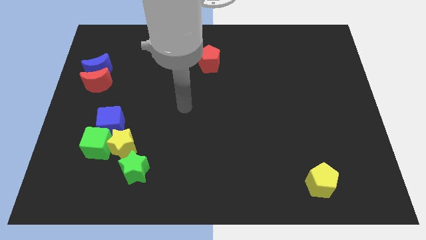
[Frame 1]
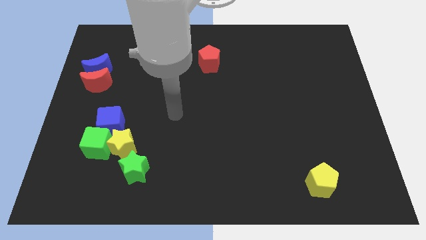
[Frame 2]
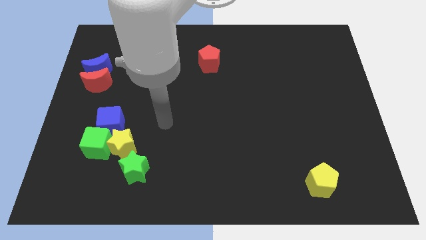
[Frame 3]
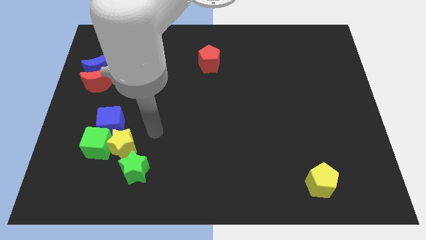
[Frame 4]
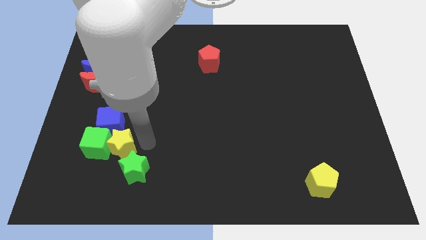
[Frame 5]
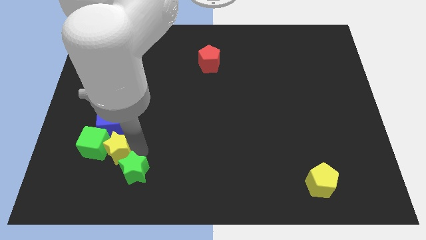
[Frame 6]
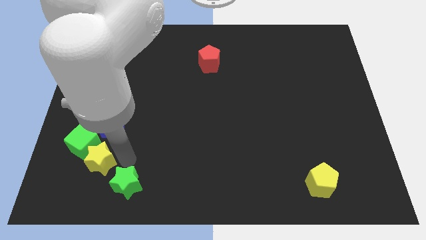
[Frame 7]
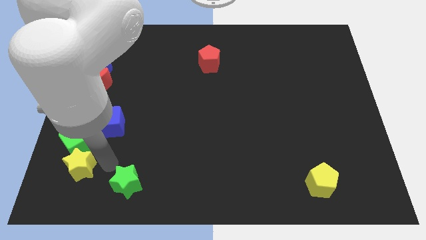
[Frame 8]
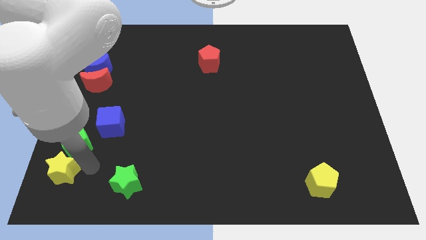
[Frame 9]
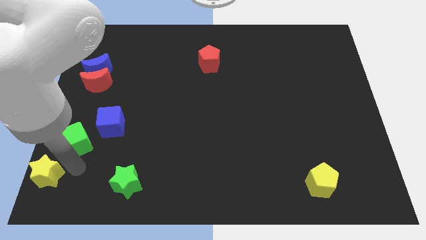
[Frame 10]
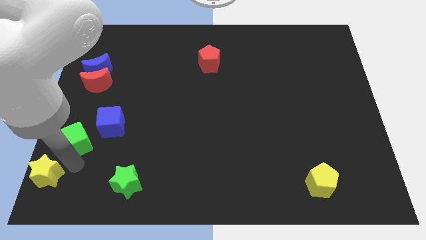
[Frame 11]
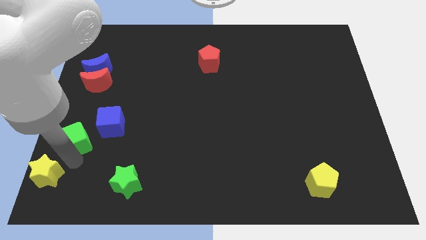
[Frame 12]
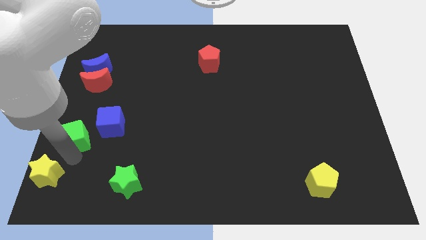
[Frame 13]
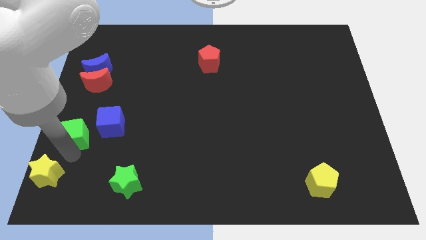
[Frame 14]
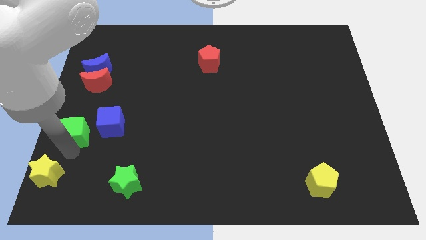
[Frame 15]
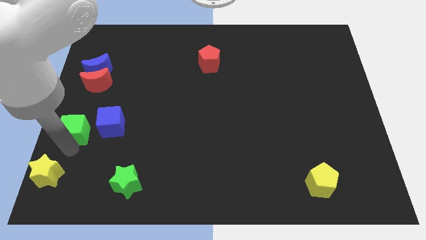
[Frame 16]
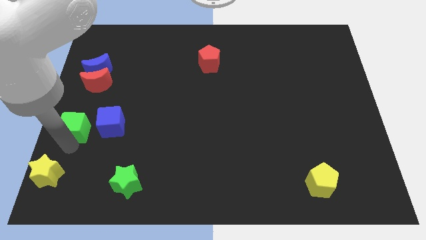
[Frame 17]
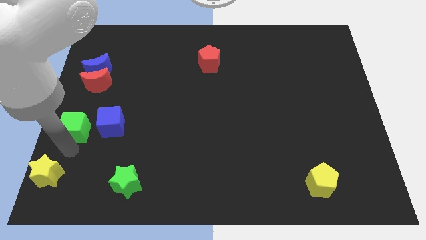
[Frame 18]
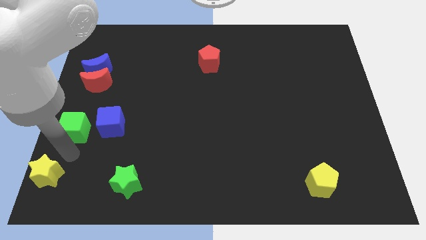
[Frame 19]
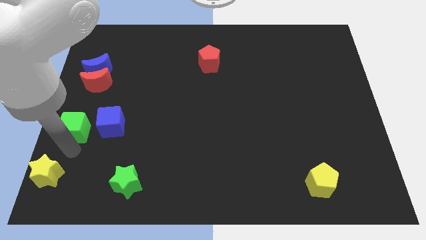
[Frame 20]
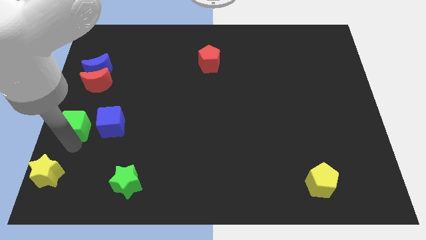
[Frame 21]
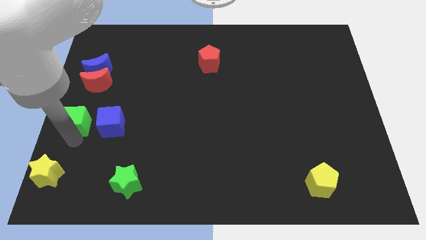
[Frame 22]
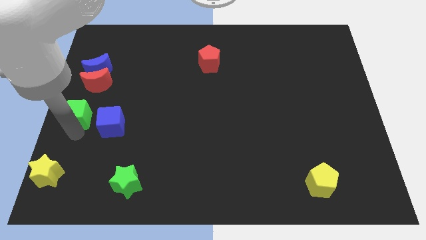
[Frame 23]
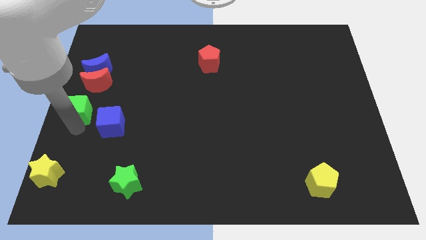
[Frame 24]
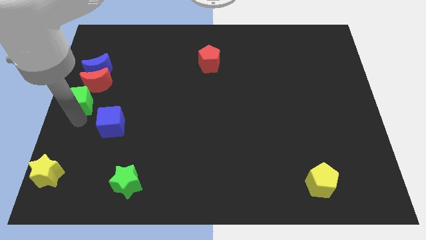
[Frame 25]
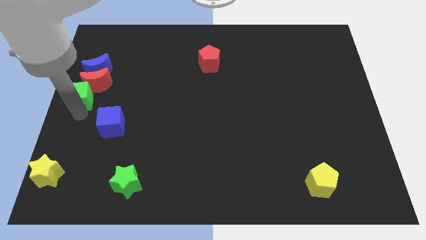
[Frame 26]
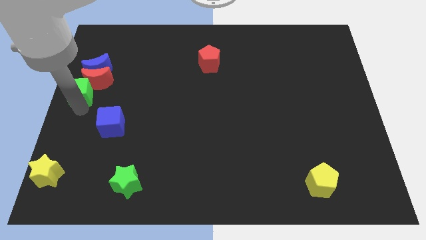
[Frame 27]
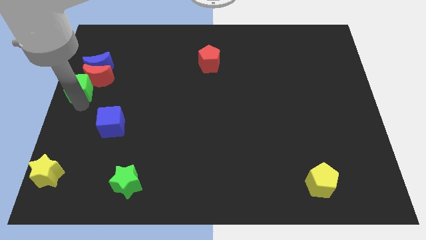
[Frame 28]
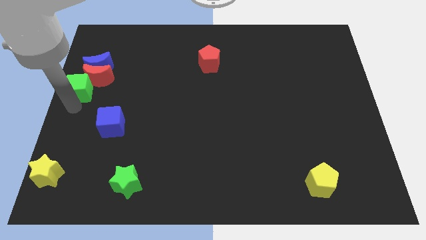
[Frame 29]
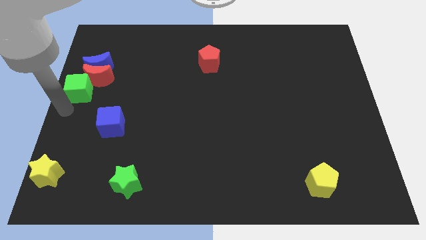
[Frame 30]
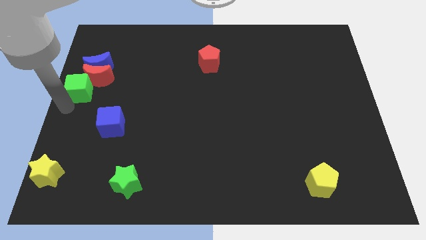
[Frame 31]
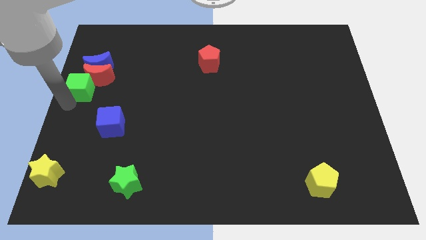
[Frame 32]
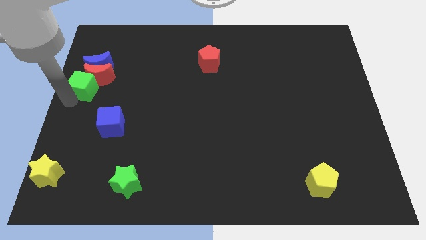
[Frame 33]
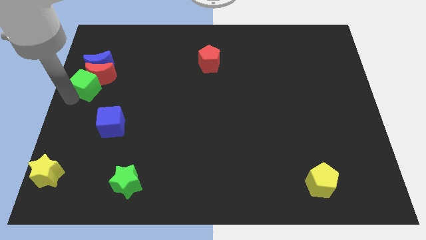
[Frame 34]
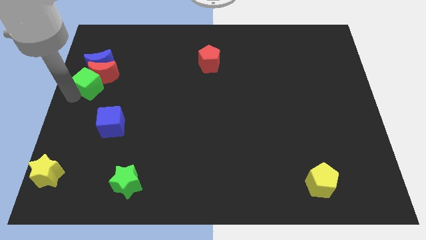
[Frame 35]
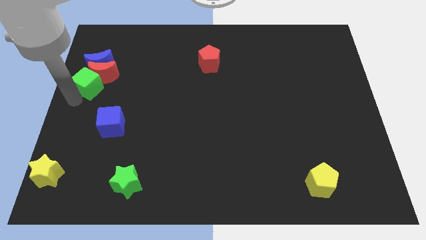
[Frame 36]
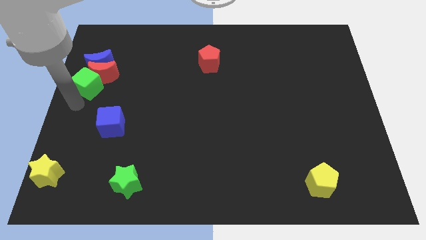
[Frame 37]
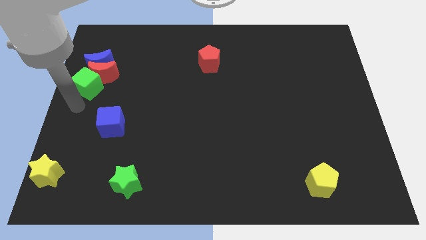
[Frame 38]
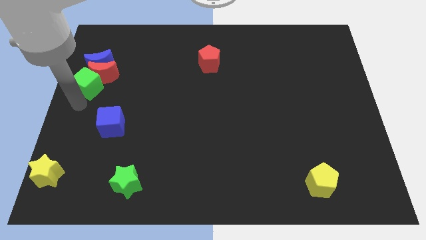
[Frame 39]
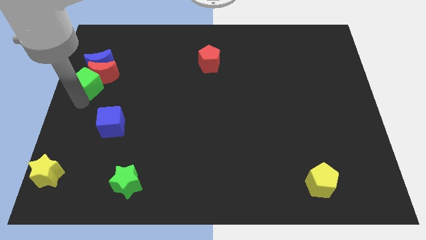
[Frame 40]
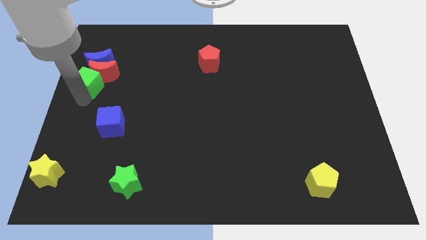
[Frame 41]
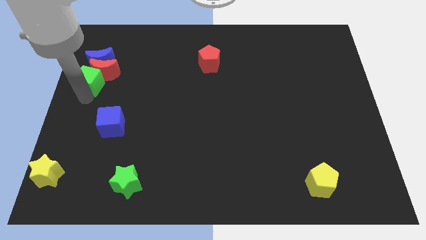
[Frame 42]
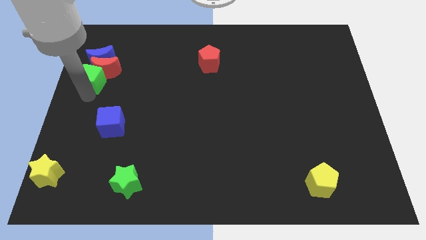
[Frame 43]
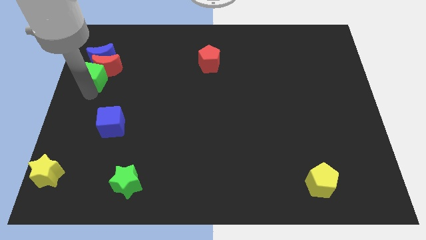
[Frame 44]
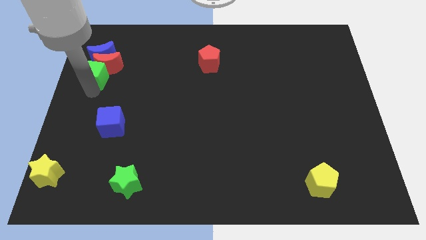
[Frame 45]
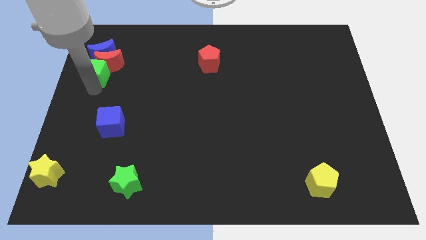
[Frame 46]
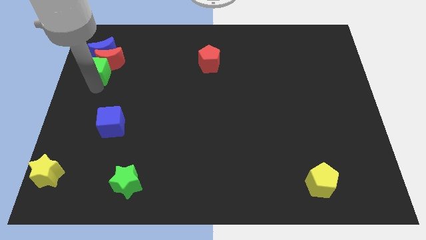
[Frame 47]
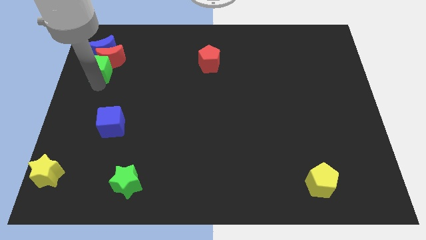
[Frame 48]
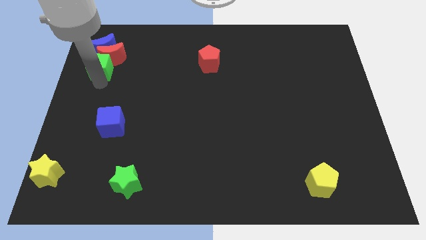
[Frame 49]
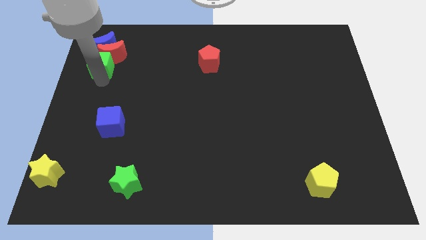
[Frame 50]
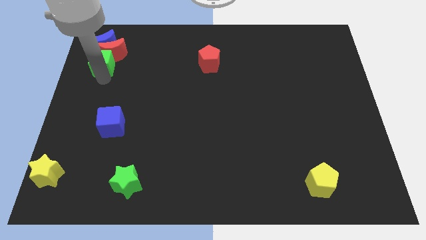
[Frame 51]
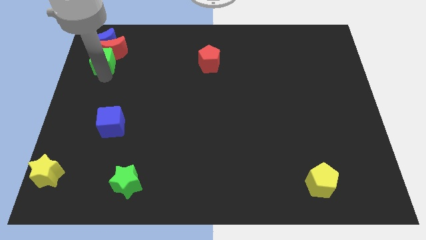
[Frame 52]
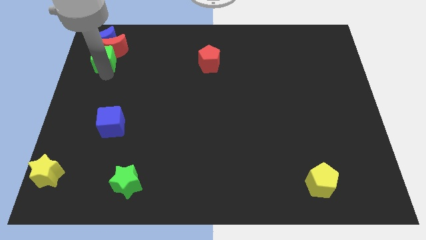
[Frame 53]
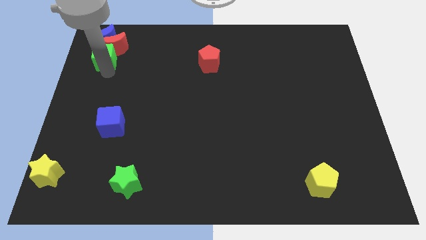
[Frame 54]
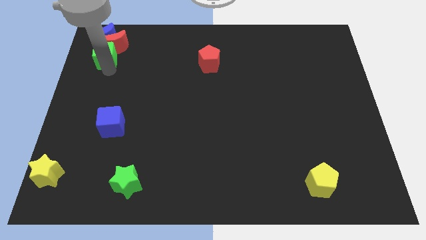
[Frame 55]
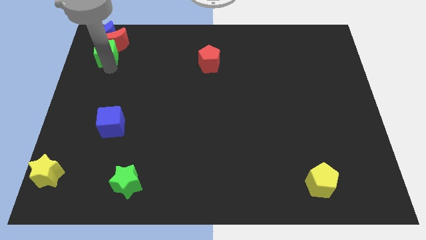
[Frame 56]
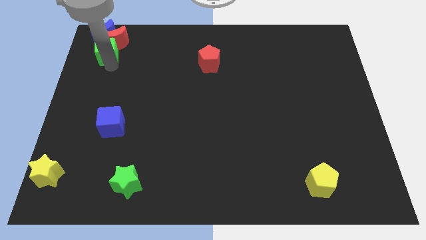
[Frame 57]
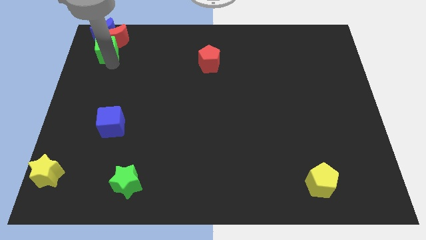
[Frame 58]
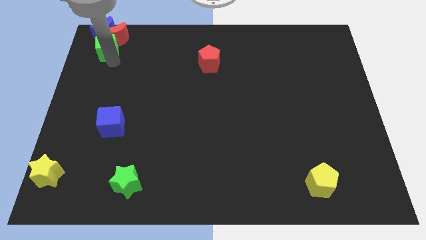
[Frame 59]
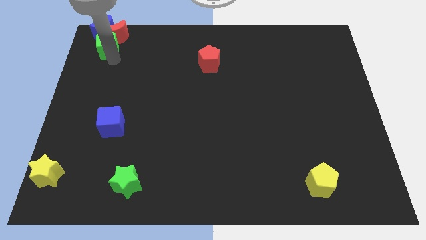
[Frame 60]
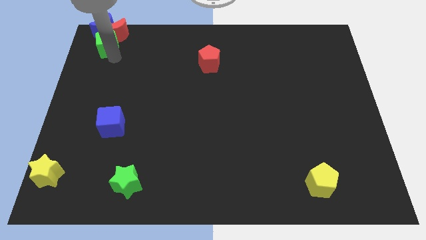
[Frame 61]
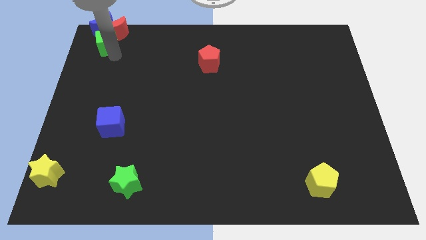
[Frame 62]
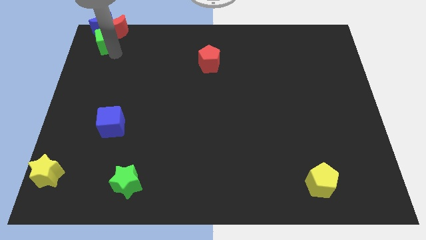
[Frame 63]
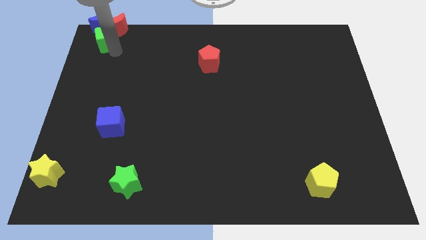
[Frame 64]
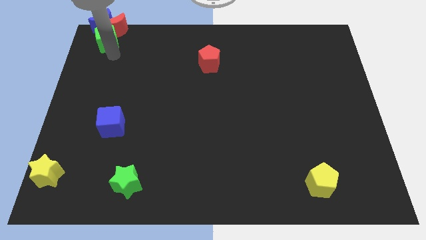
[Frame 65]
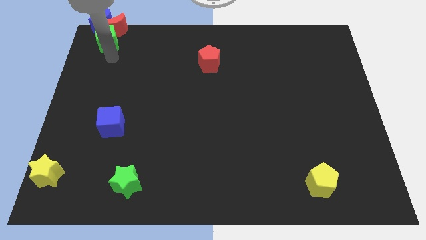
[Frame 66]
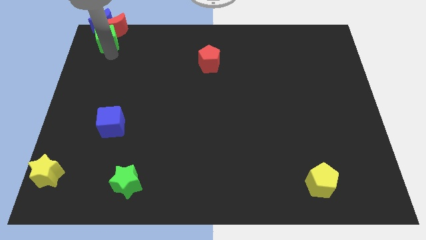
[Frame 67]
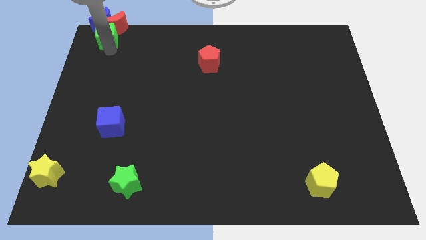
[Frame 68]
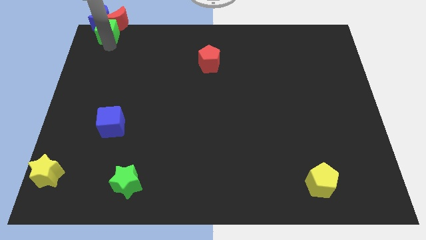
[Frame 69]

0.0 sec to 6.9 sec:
put the green cube towards the blue moon
